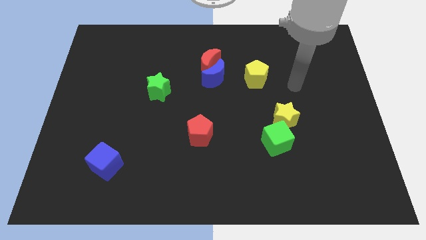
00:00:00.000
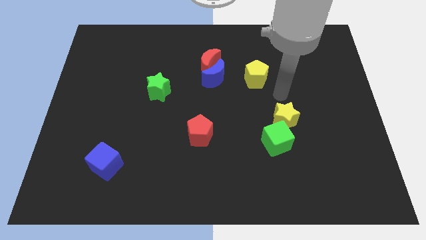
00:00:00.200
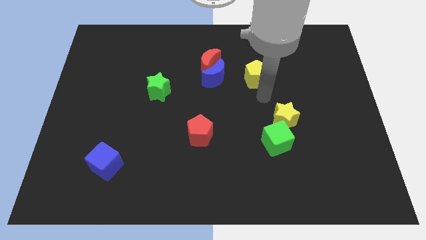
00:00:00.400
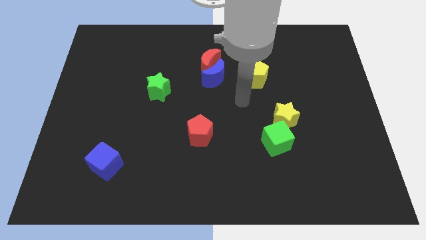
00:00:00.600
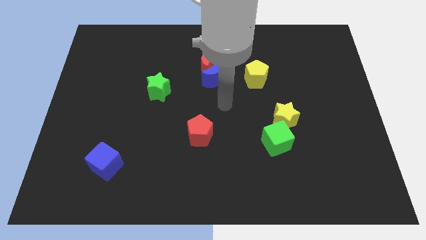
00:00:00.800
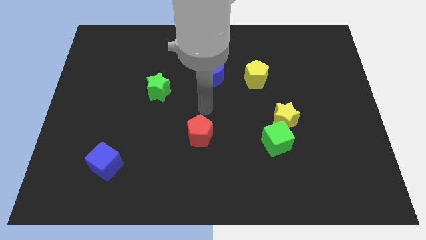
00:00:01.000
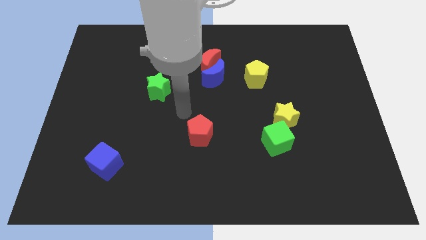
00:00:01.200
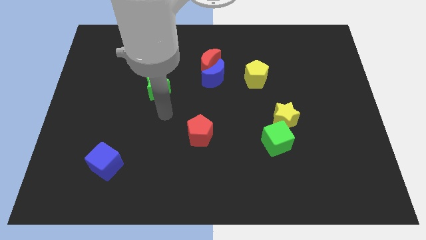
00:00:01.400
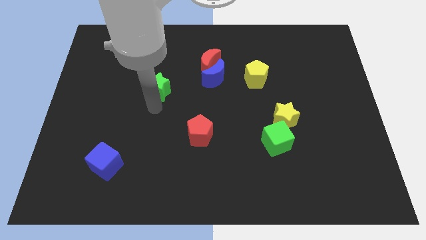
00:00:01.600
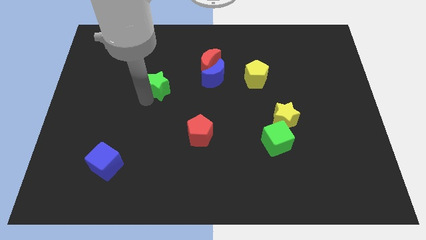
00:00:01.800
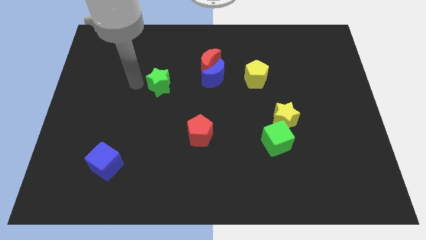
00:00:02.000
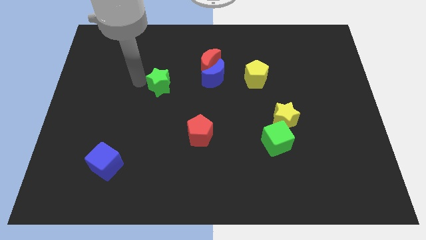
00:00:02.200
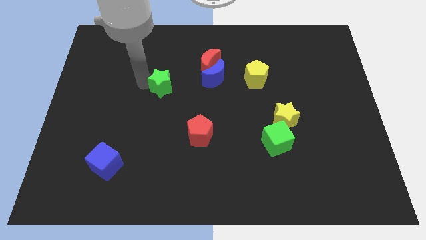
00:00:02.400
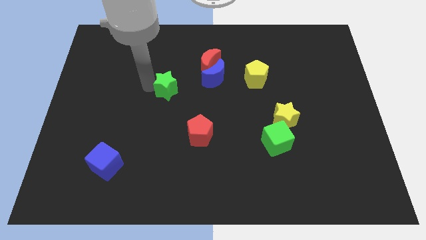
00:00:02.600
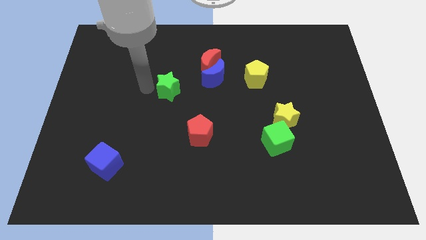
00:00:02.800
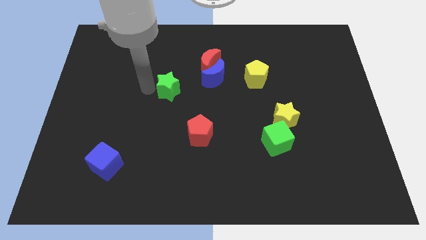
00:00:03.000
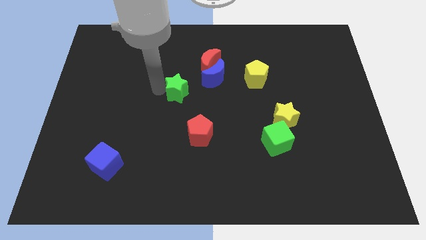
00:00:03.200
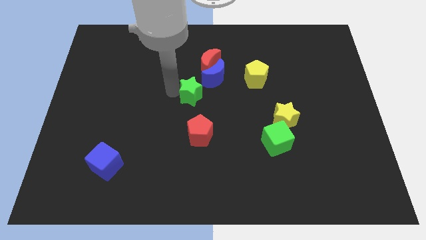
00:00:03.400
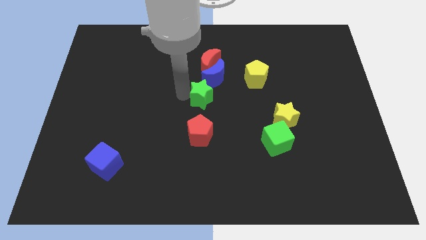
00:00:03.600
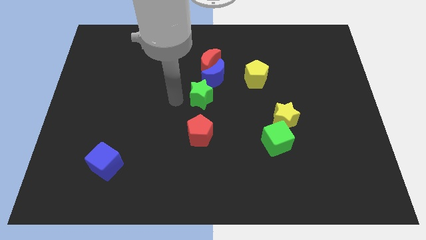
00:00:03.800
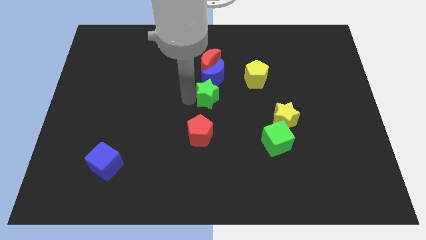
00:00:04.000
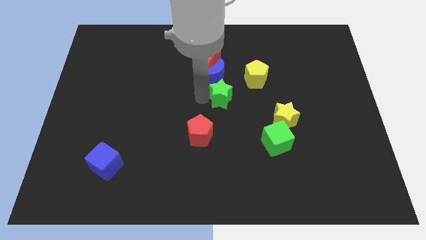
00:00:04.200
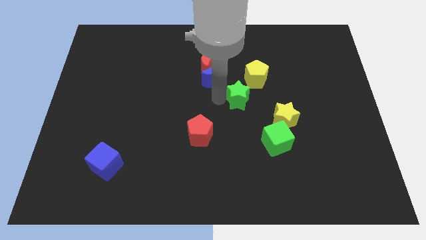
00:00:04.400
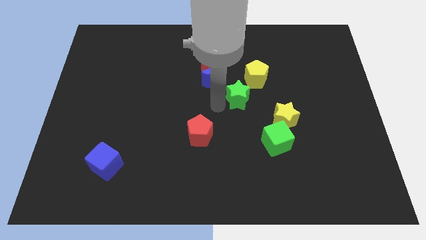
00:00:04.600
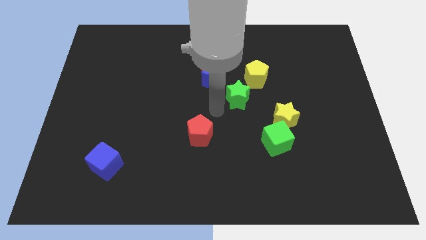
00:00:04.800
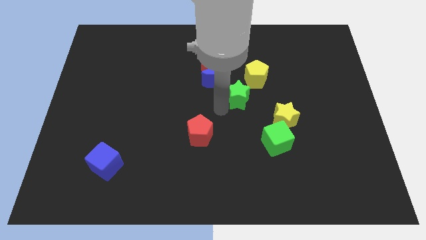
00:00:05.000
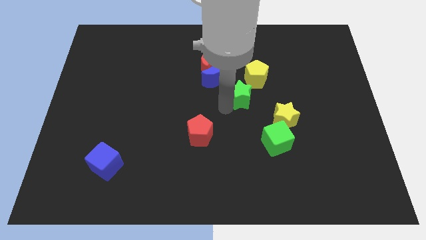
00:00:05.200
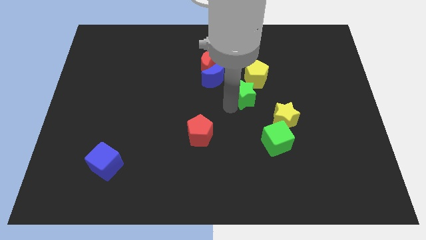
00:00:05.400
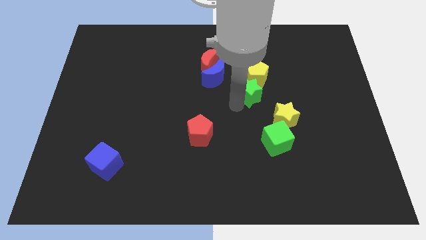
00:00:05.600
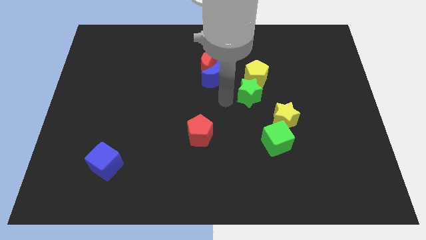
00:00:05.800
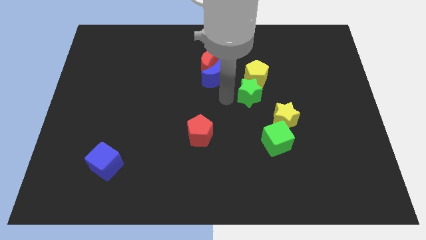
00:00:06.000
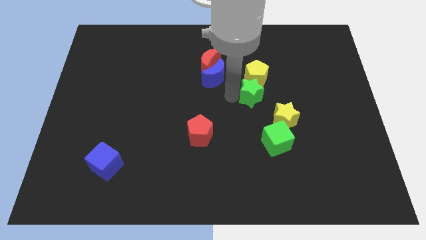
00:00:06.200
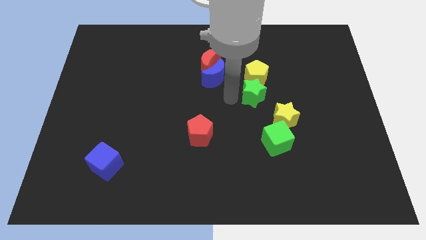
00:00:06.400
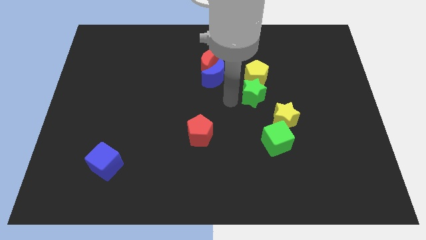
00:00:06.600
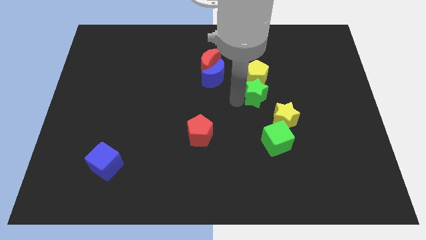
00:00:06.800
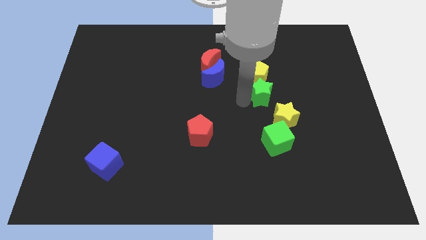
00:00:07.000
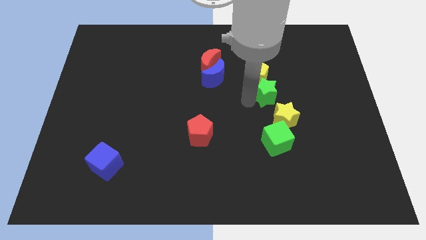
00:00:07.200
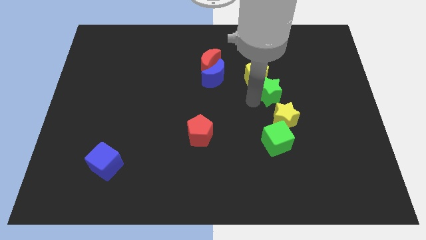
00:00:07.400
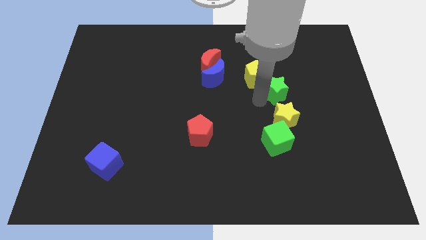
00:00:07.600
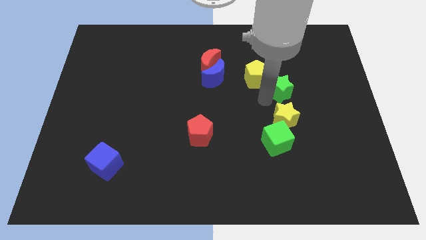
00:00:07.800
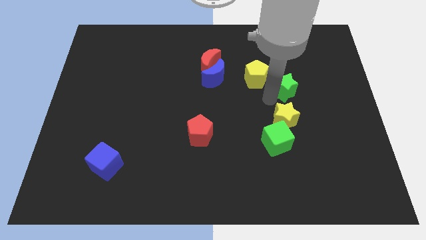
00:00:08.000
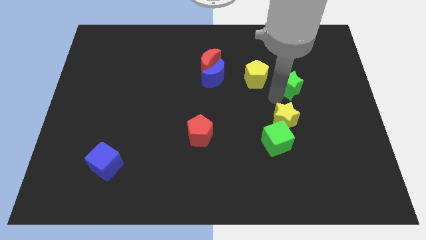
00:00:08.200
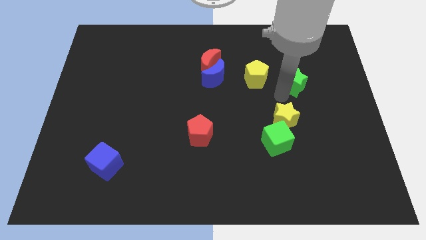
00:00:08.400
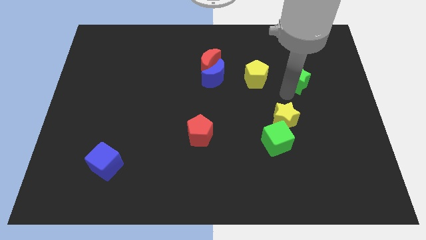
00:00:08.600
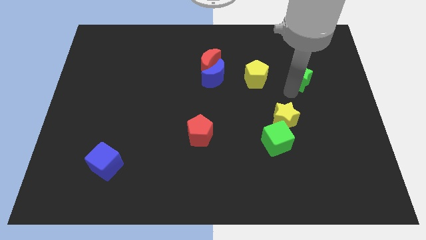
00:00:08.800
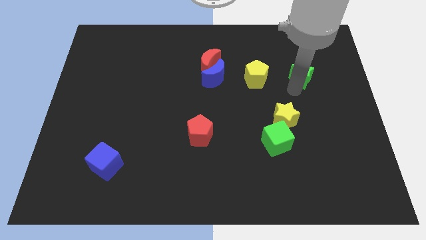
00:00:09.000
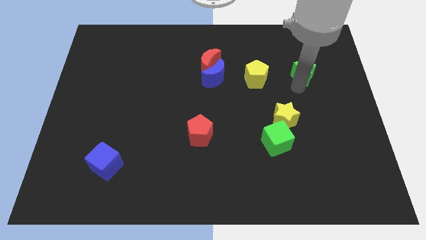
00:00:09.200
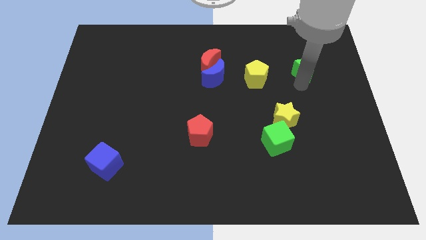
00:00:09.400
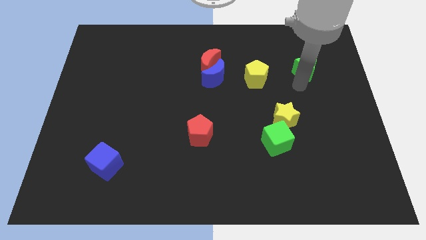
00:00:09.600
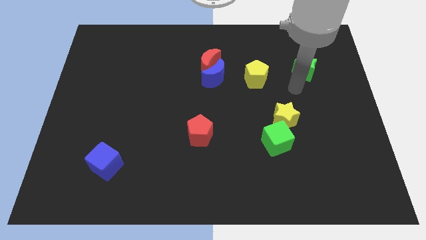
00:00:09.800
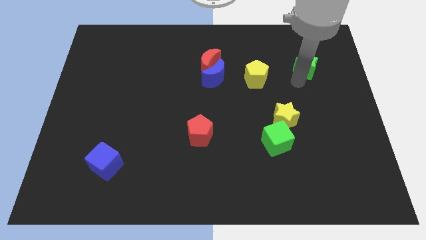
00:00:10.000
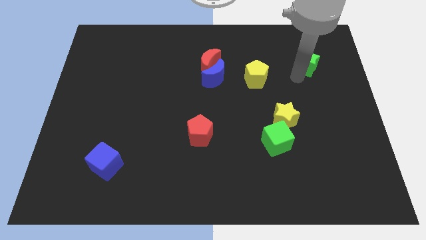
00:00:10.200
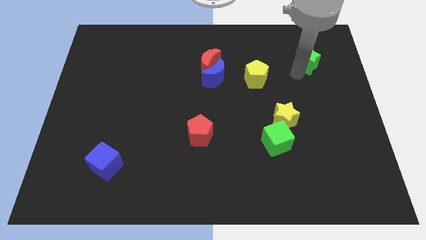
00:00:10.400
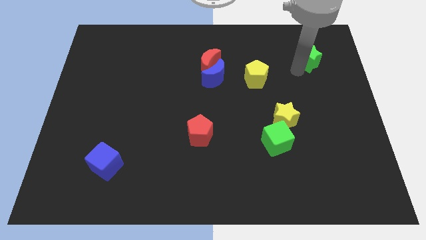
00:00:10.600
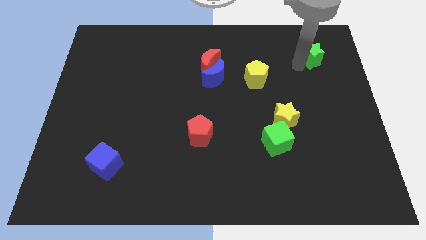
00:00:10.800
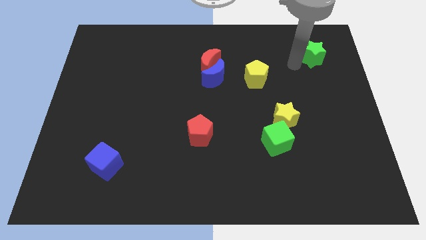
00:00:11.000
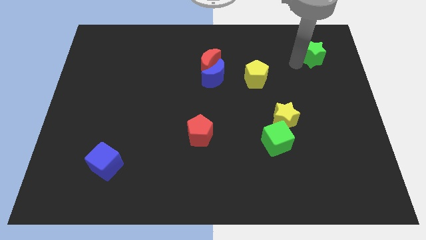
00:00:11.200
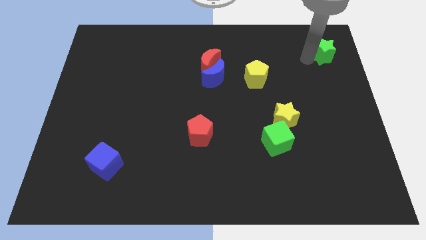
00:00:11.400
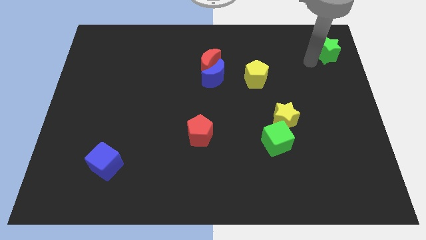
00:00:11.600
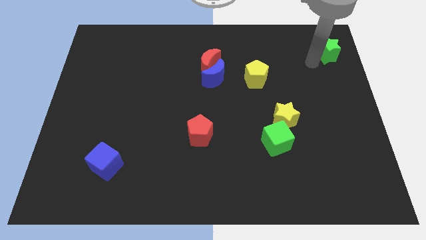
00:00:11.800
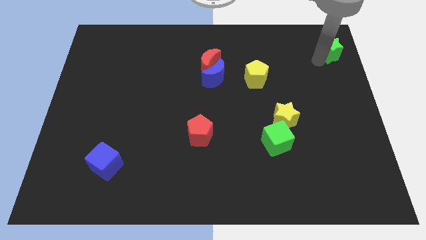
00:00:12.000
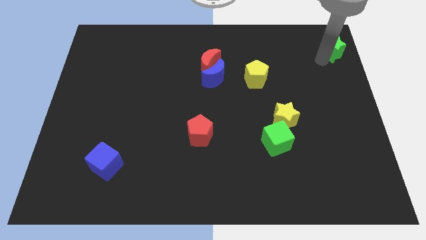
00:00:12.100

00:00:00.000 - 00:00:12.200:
slide the green star to the upper right corner
